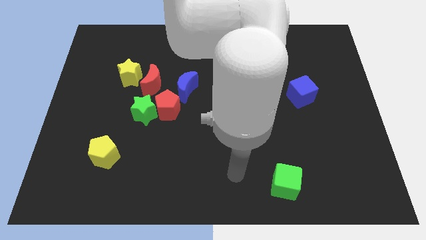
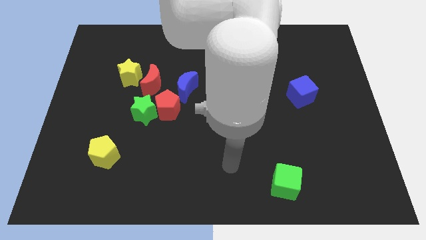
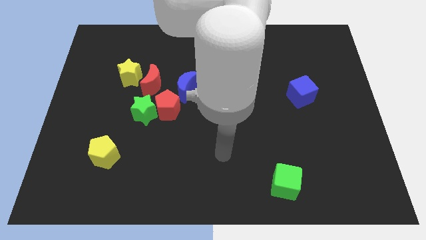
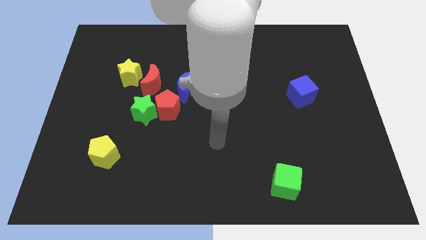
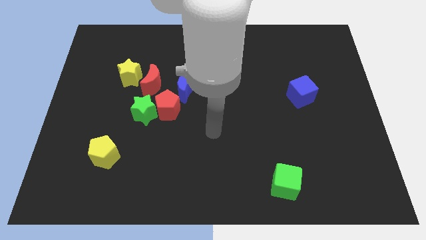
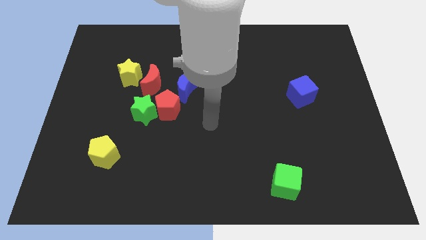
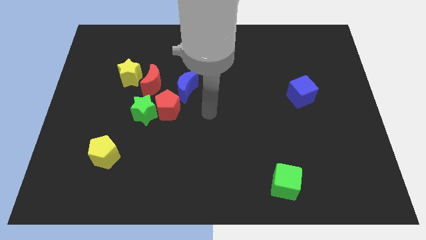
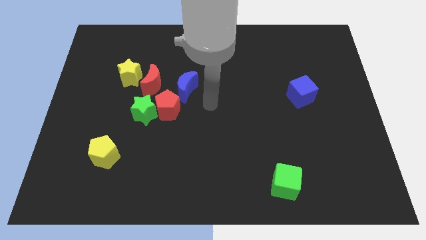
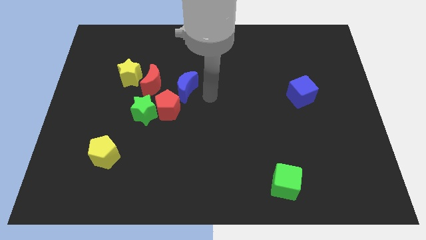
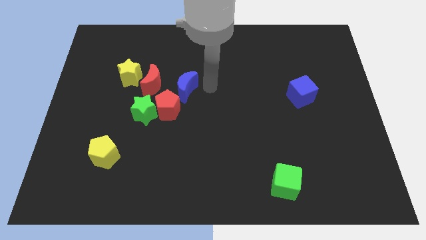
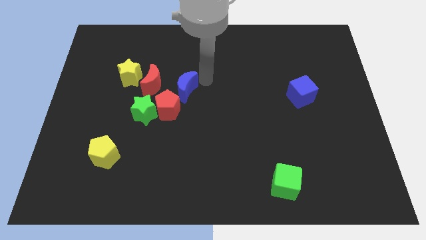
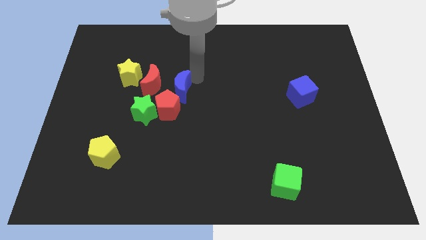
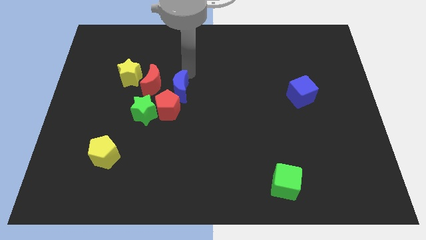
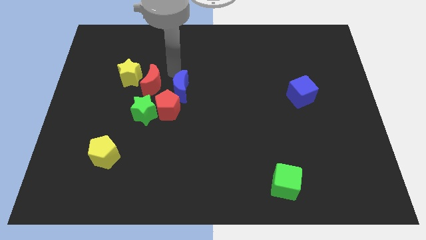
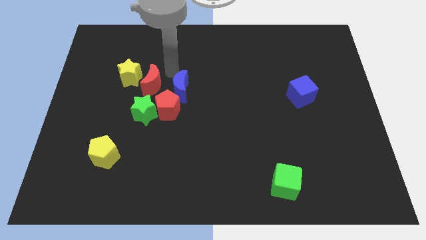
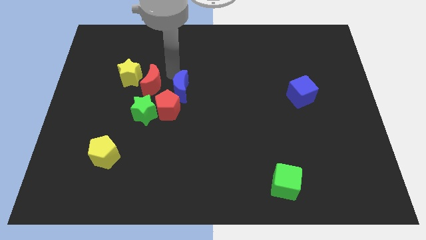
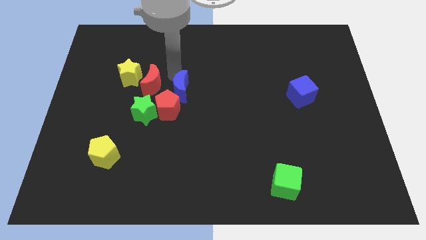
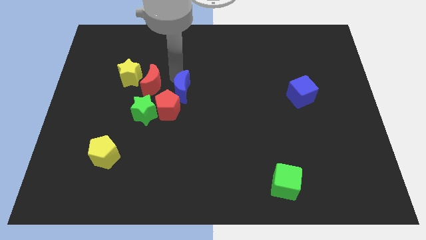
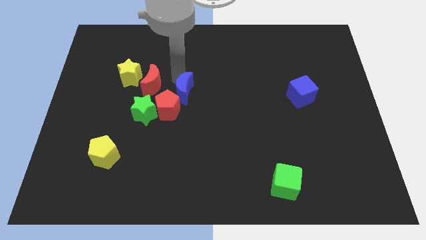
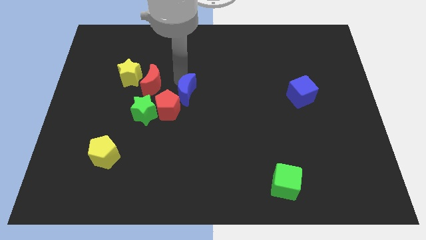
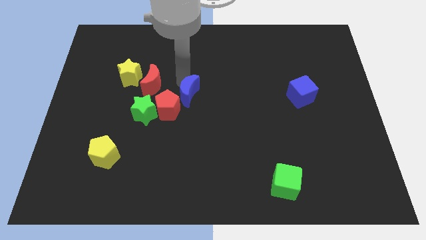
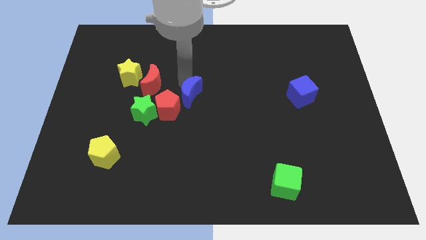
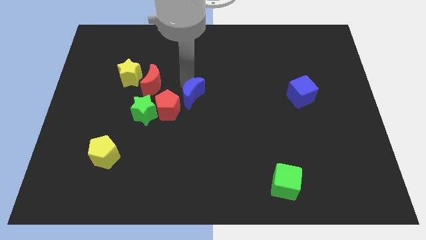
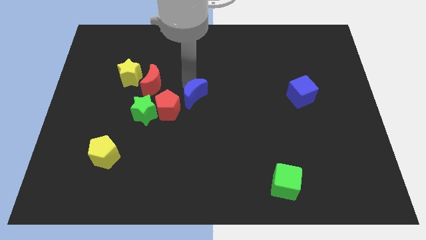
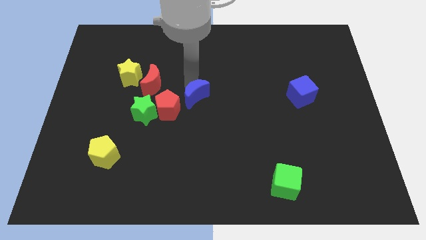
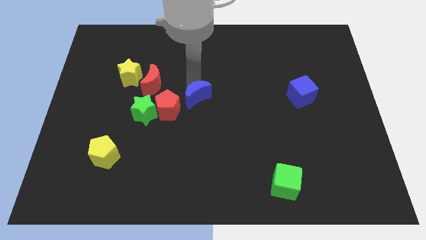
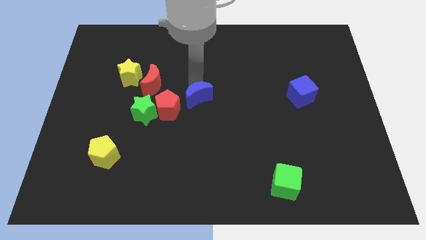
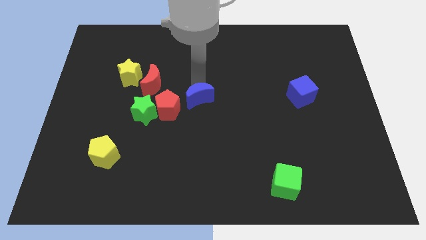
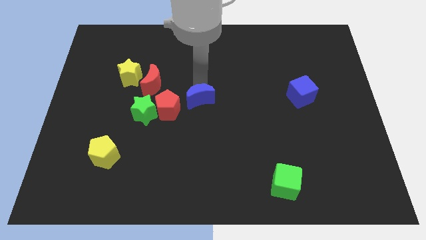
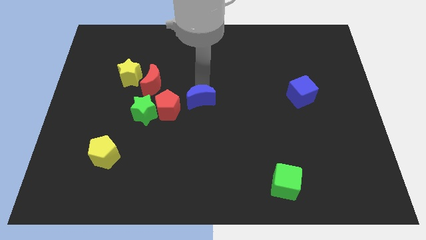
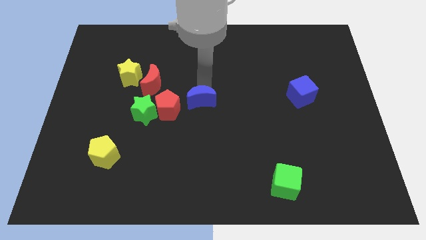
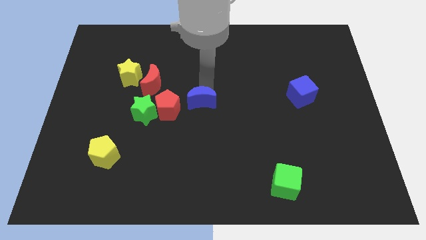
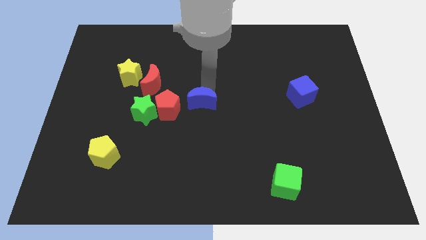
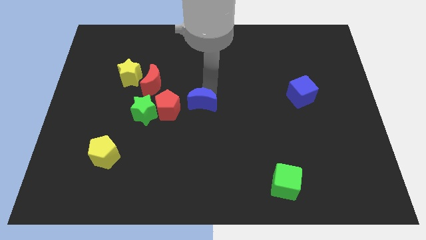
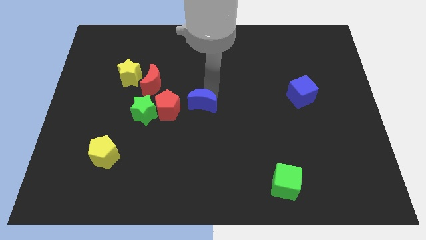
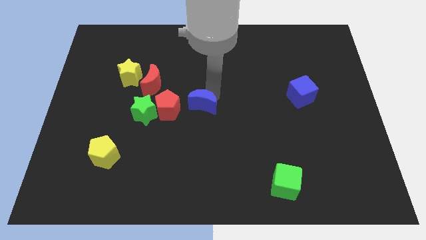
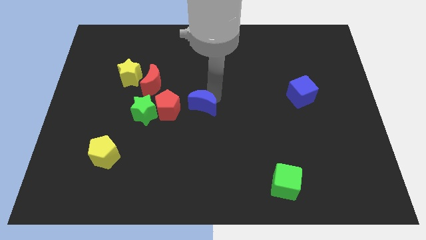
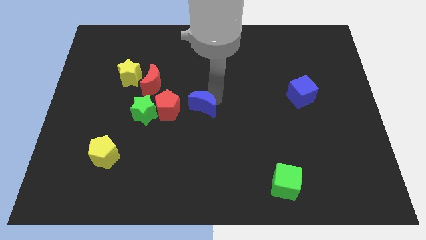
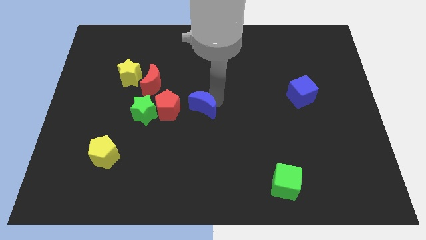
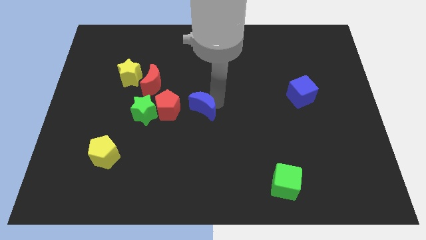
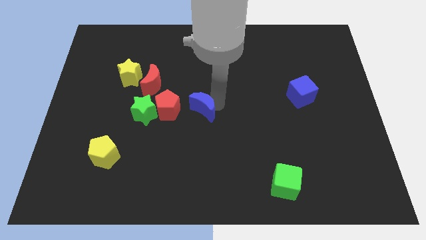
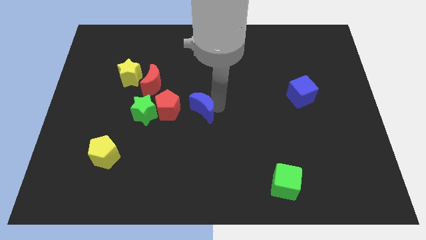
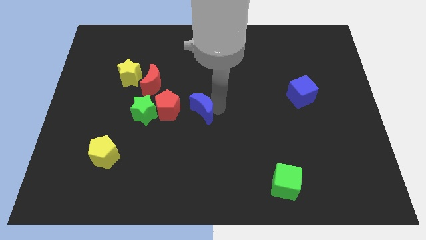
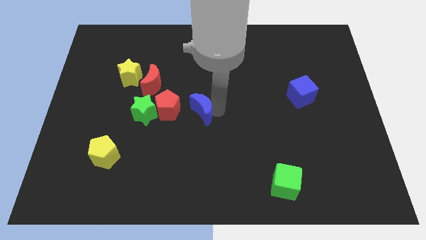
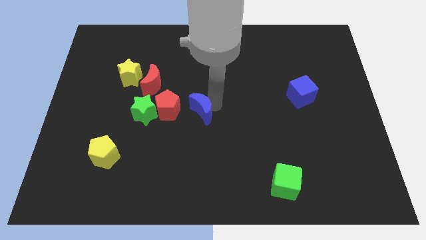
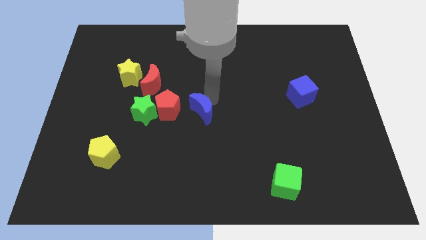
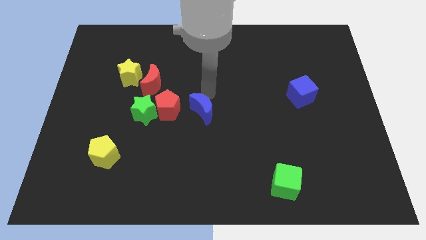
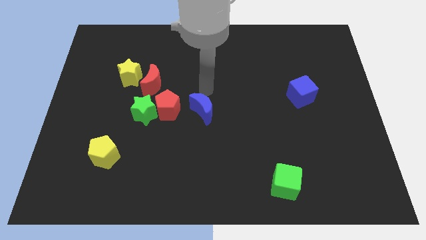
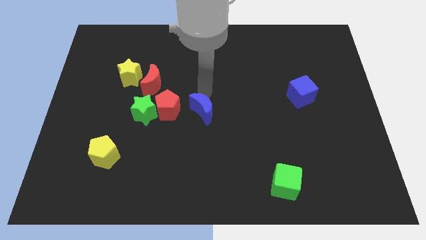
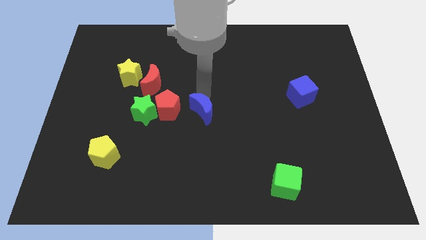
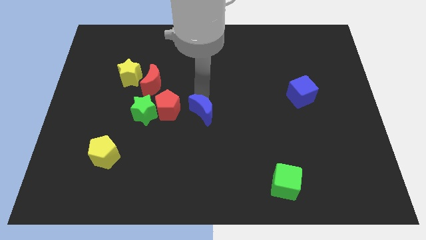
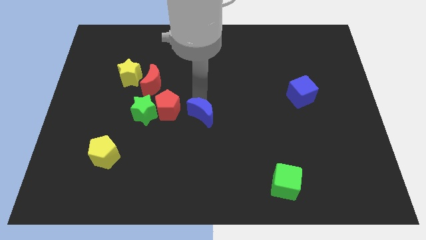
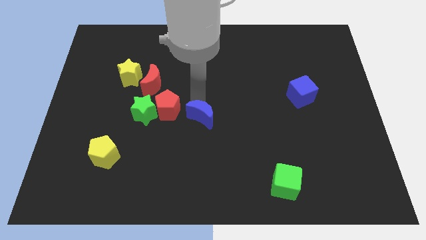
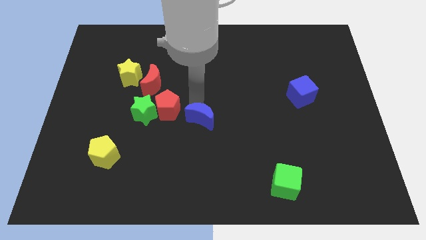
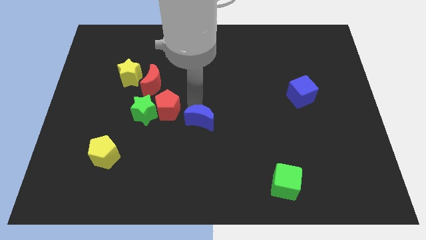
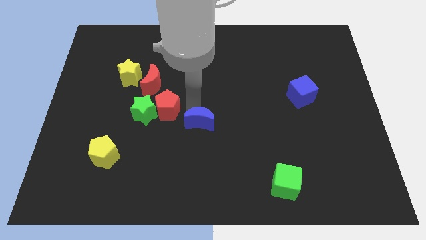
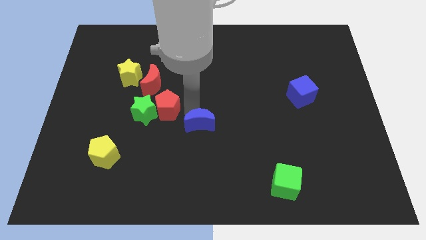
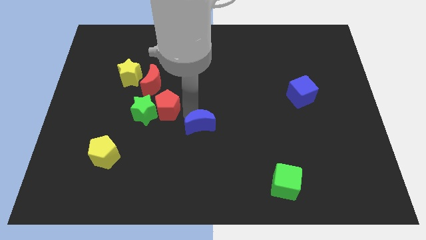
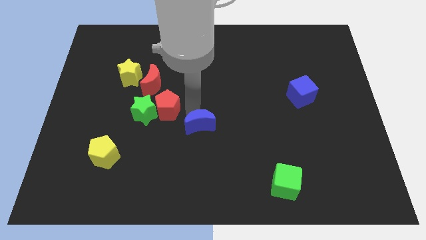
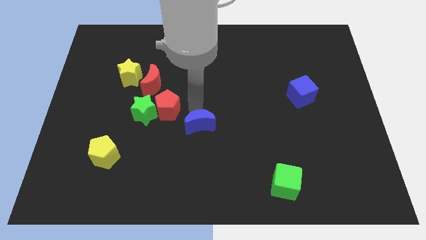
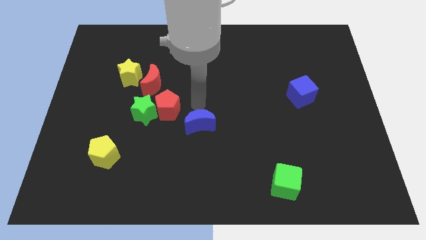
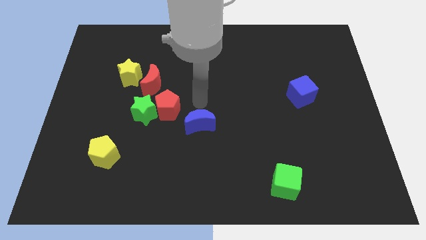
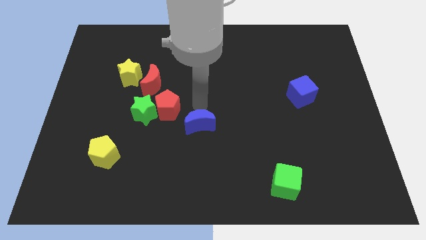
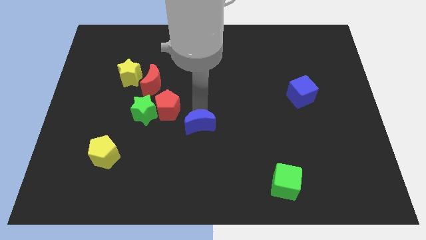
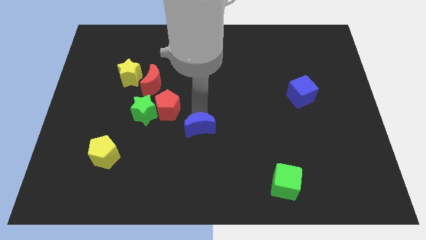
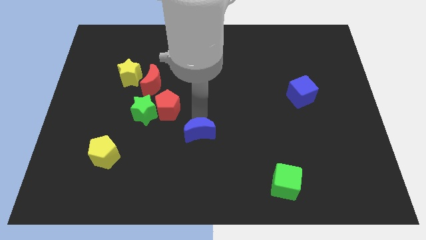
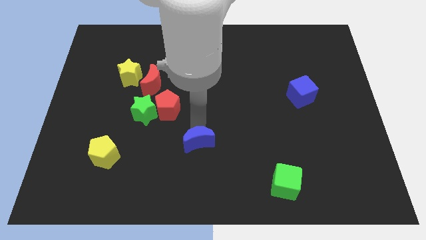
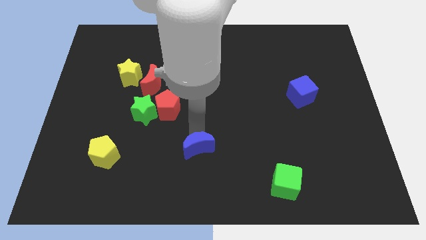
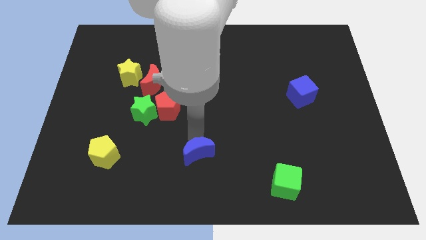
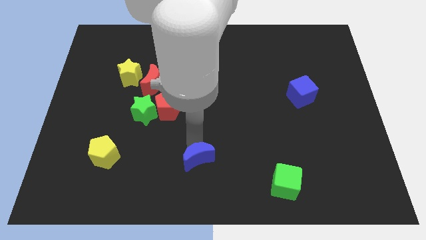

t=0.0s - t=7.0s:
move the blue moon to the bottom side
